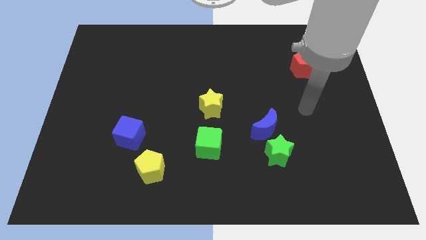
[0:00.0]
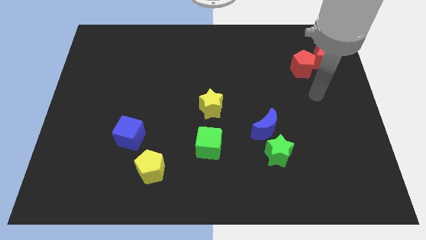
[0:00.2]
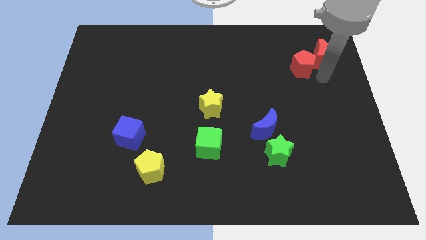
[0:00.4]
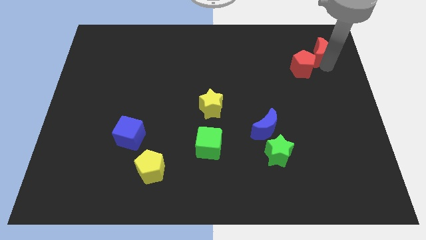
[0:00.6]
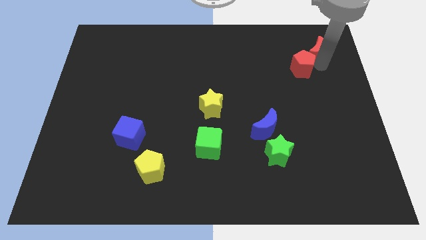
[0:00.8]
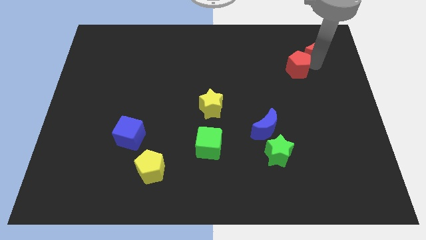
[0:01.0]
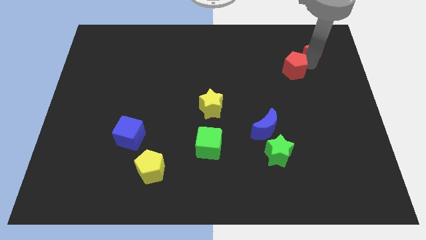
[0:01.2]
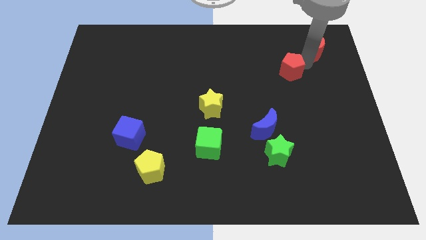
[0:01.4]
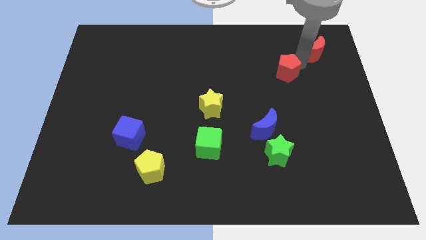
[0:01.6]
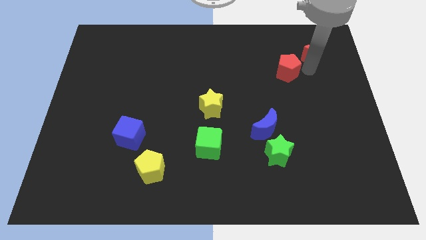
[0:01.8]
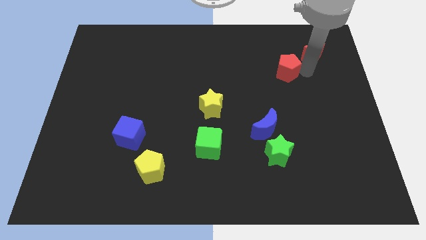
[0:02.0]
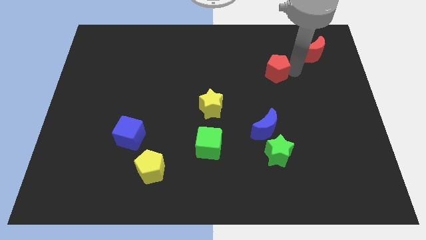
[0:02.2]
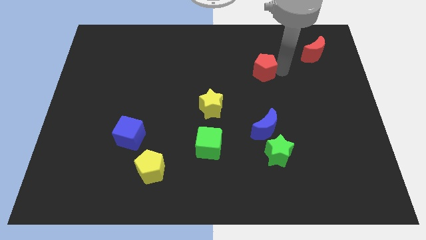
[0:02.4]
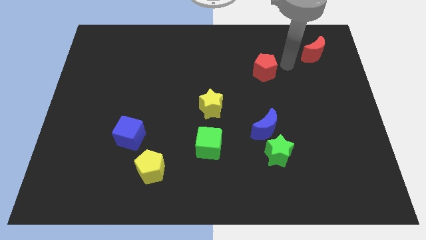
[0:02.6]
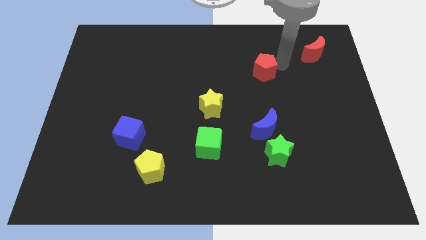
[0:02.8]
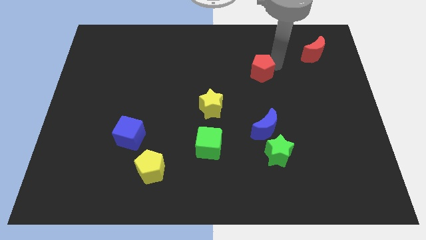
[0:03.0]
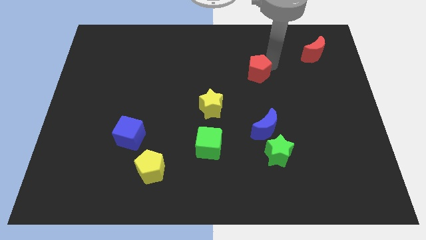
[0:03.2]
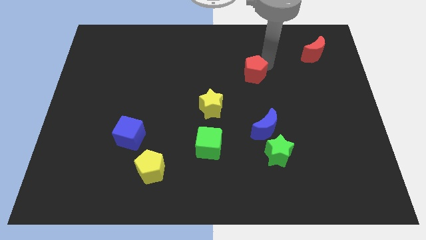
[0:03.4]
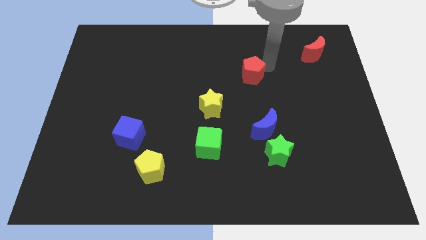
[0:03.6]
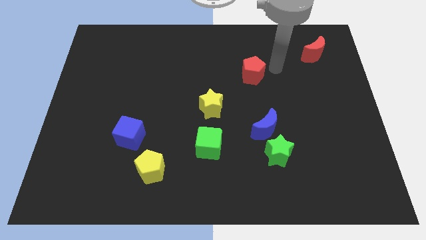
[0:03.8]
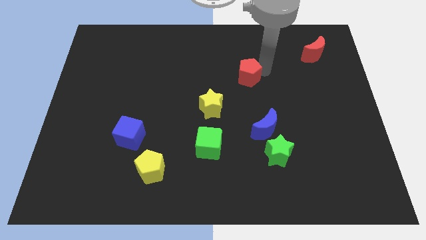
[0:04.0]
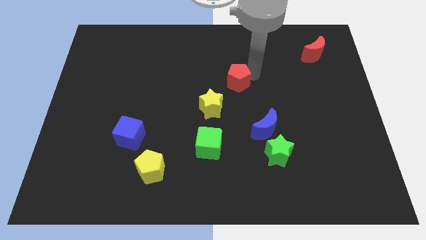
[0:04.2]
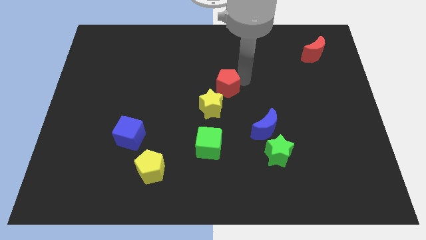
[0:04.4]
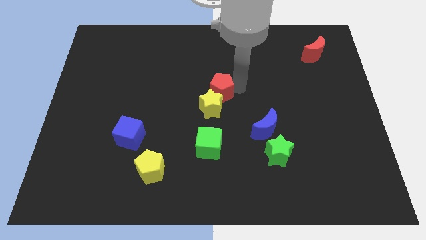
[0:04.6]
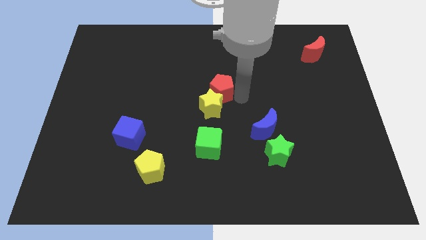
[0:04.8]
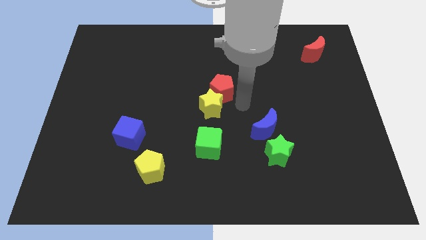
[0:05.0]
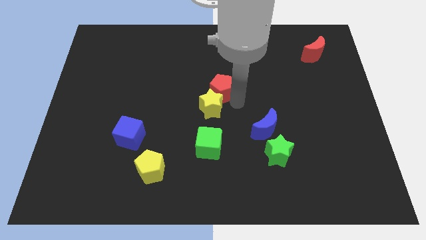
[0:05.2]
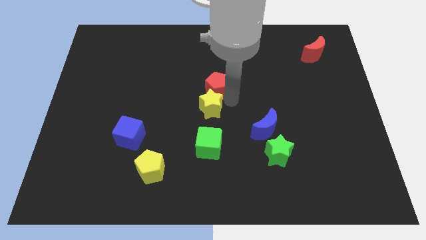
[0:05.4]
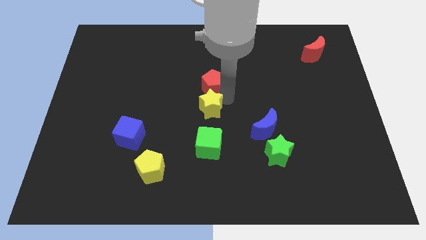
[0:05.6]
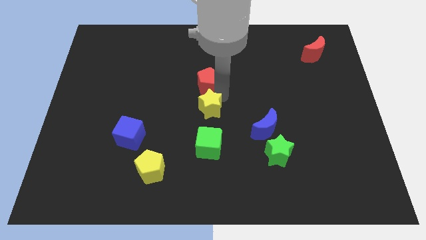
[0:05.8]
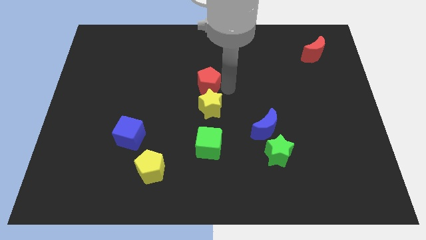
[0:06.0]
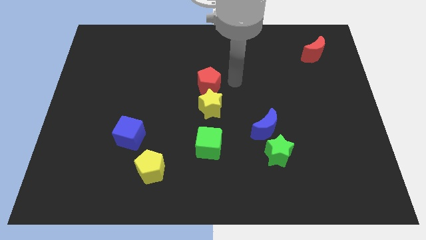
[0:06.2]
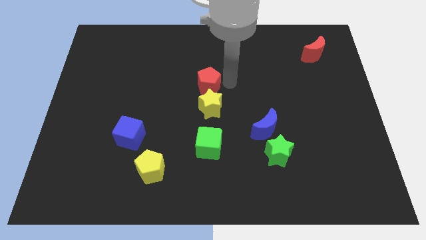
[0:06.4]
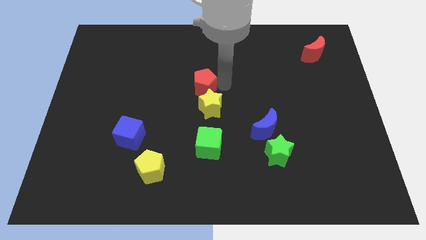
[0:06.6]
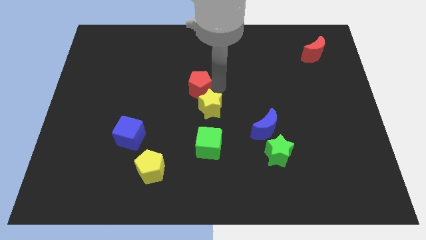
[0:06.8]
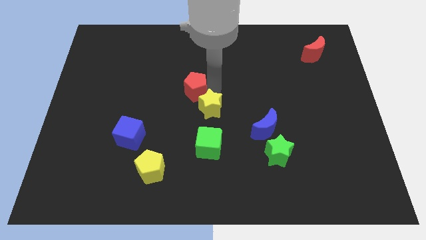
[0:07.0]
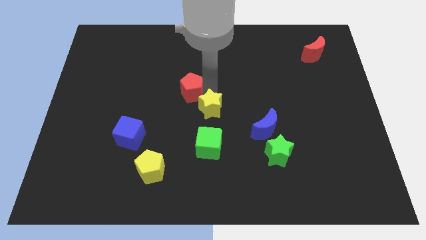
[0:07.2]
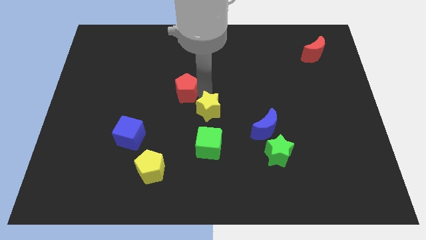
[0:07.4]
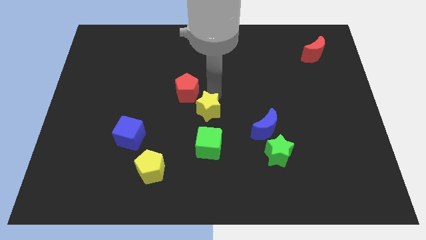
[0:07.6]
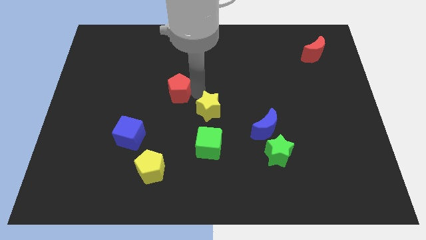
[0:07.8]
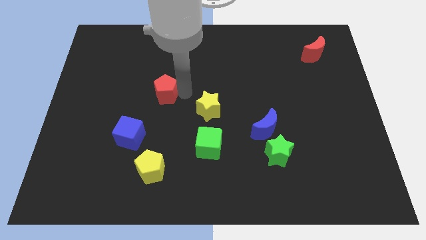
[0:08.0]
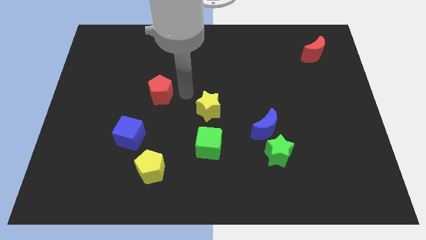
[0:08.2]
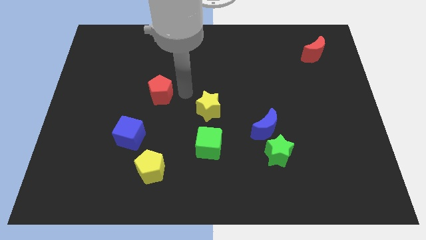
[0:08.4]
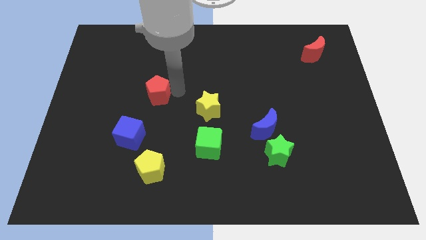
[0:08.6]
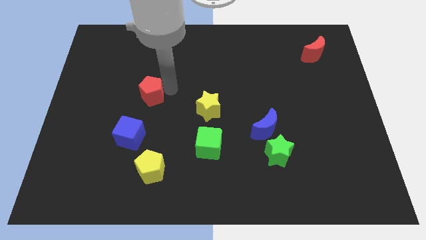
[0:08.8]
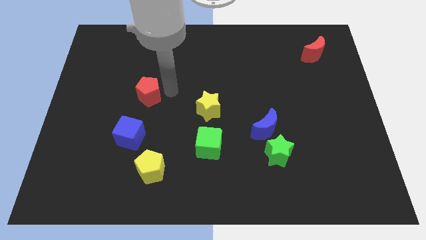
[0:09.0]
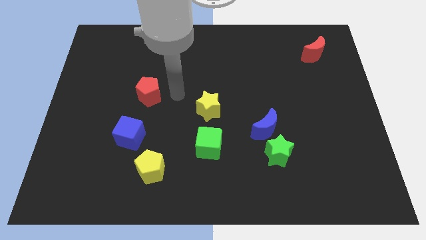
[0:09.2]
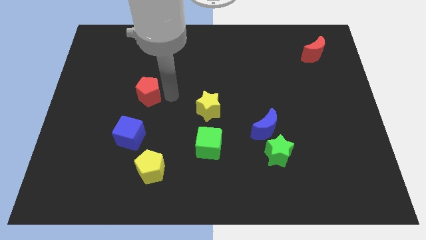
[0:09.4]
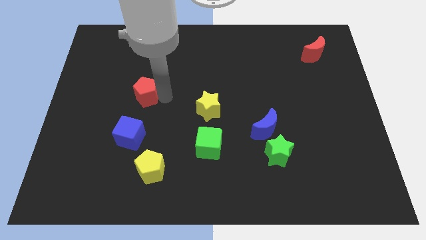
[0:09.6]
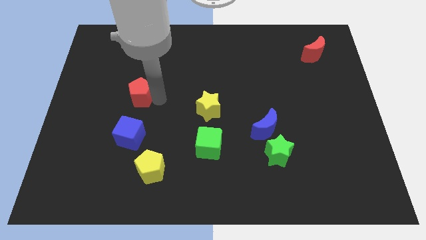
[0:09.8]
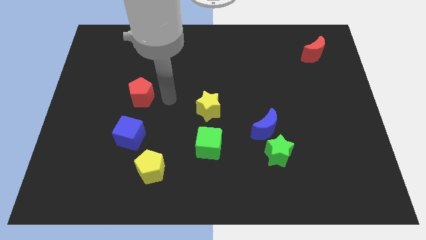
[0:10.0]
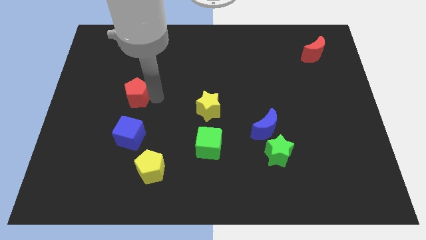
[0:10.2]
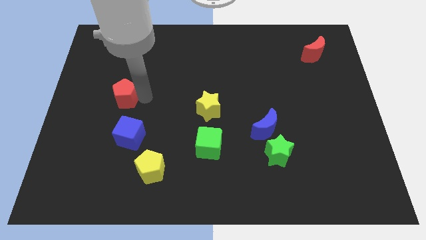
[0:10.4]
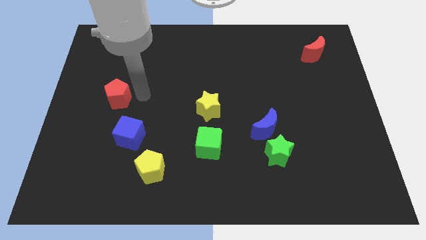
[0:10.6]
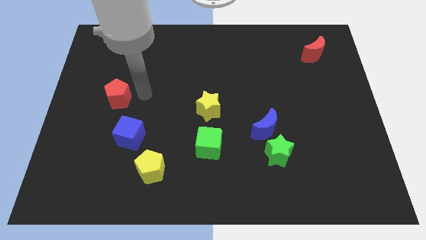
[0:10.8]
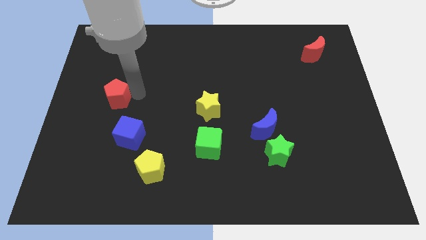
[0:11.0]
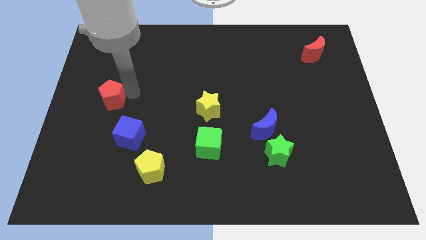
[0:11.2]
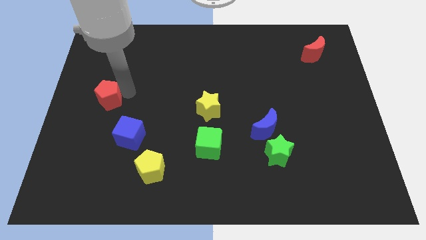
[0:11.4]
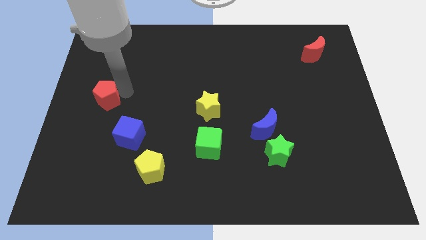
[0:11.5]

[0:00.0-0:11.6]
move the red pentagon to the left side of the board
